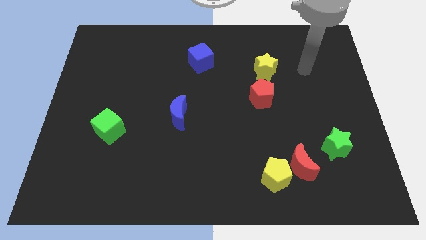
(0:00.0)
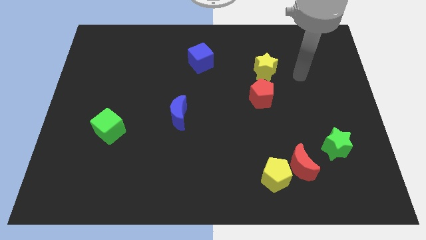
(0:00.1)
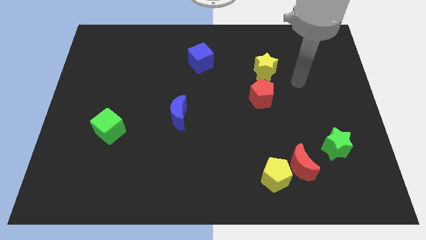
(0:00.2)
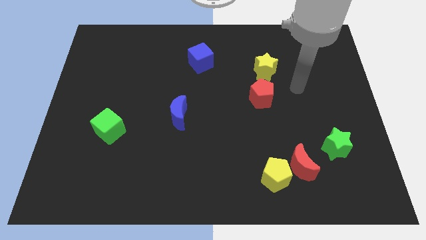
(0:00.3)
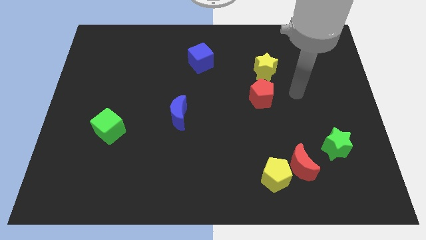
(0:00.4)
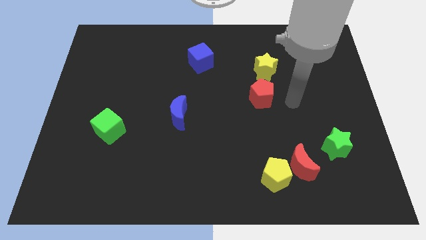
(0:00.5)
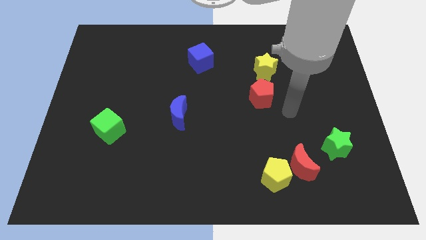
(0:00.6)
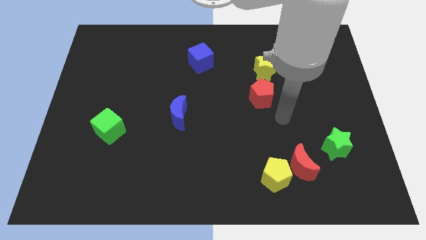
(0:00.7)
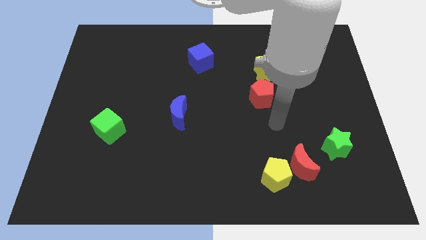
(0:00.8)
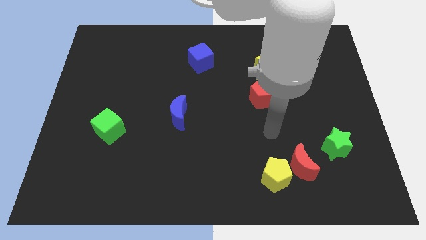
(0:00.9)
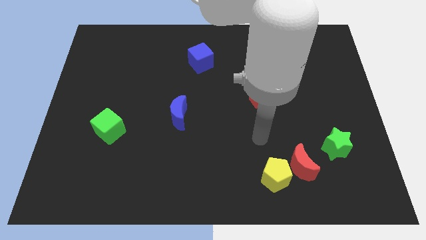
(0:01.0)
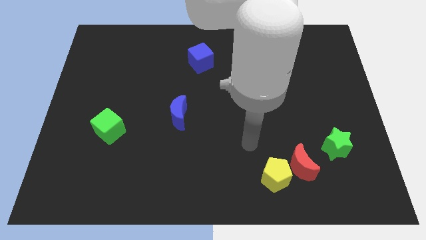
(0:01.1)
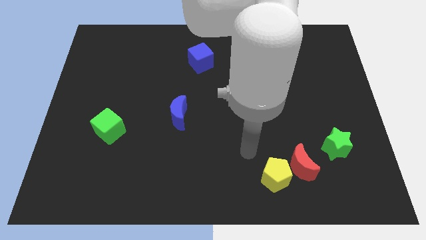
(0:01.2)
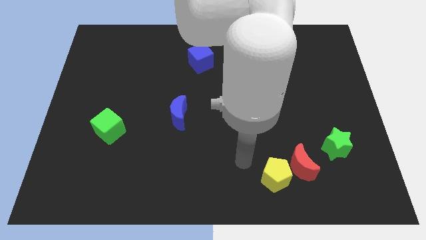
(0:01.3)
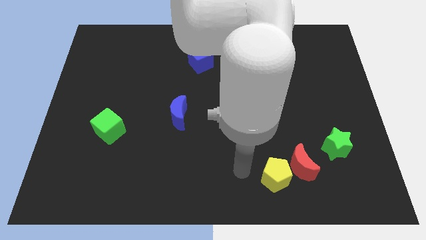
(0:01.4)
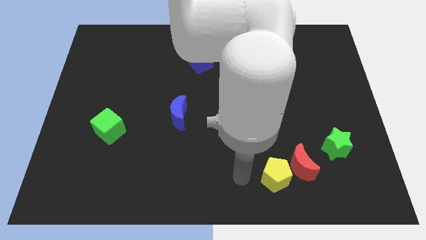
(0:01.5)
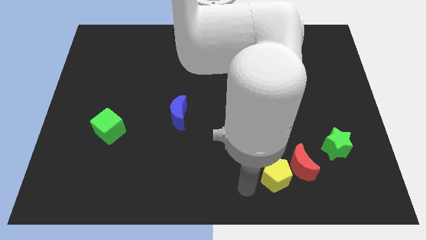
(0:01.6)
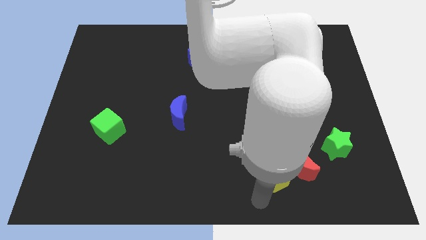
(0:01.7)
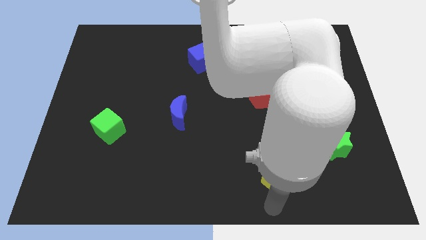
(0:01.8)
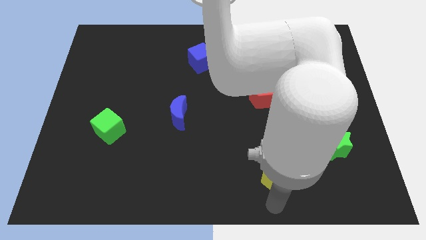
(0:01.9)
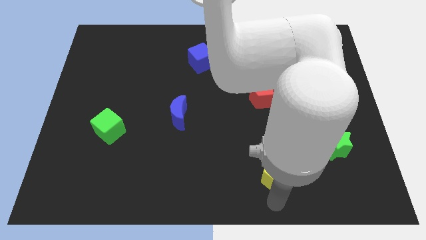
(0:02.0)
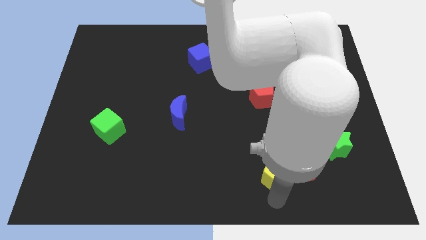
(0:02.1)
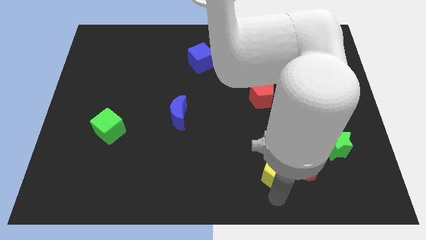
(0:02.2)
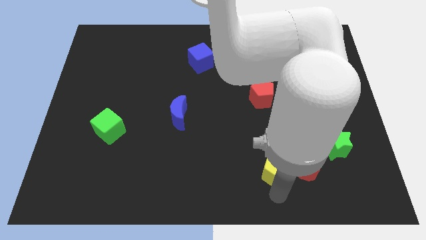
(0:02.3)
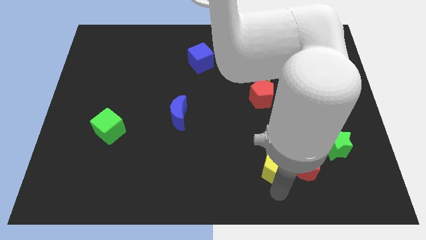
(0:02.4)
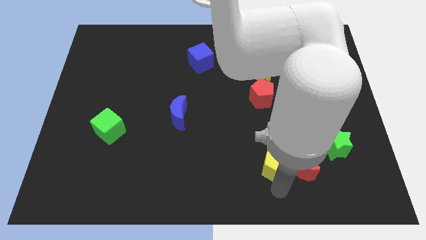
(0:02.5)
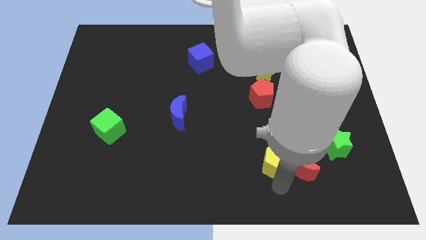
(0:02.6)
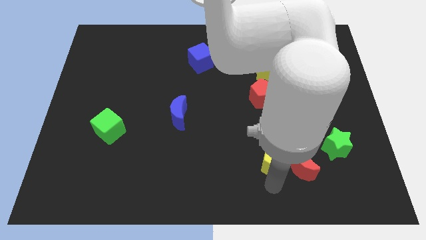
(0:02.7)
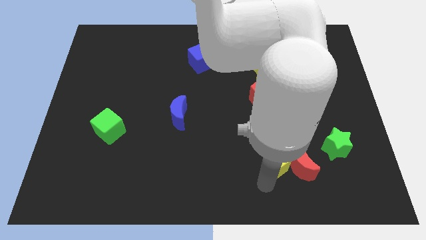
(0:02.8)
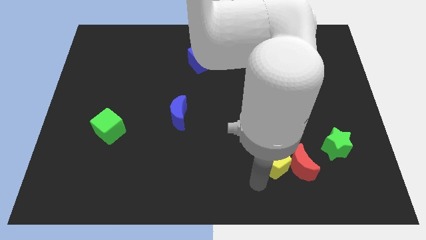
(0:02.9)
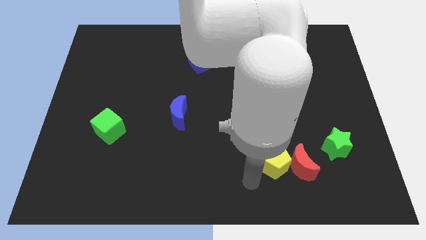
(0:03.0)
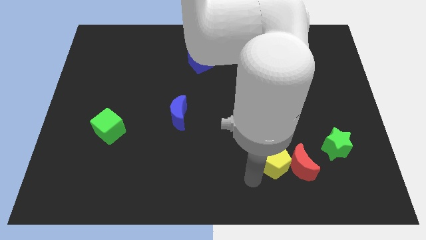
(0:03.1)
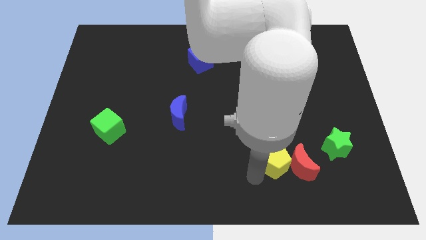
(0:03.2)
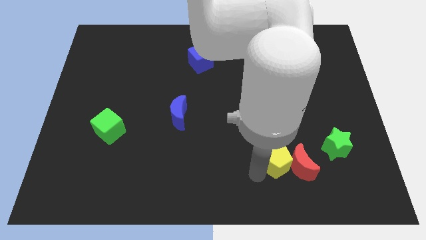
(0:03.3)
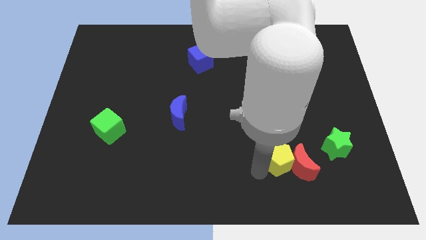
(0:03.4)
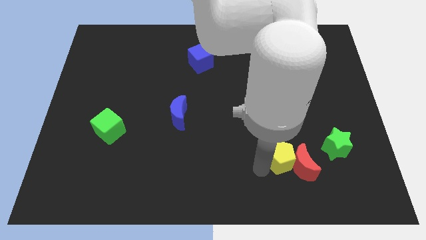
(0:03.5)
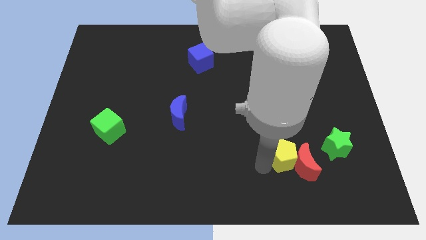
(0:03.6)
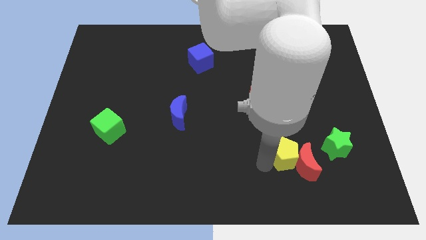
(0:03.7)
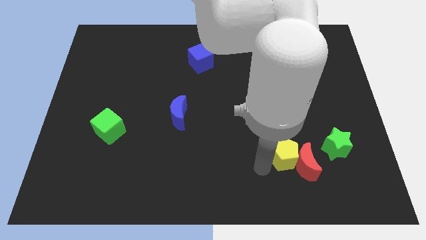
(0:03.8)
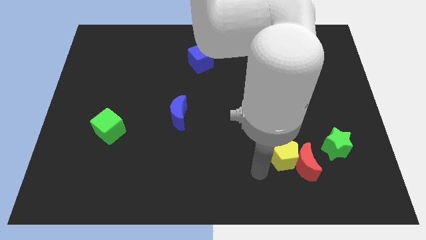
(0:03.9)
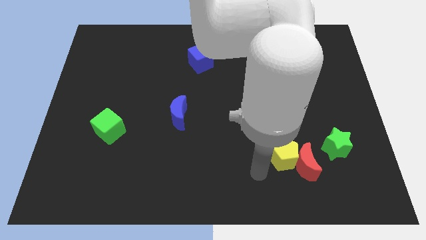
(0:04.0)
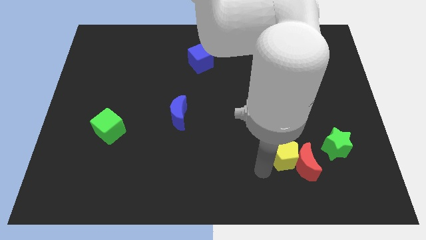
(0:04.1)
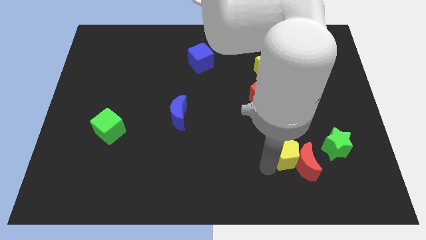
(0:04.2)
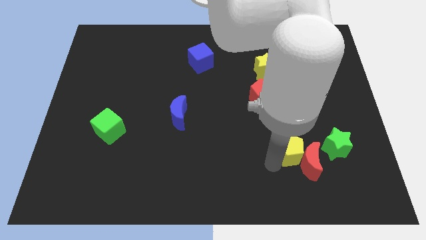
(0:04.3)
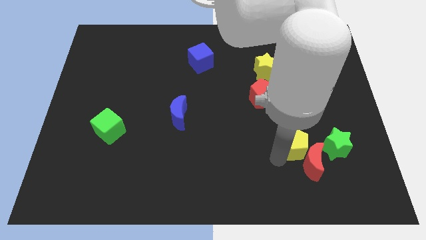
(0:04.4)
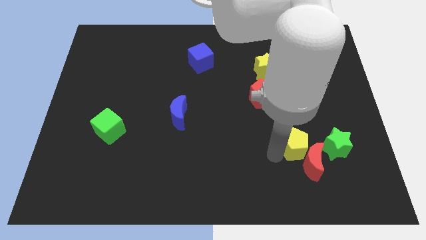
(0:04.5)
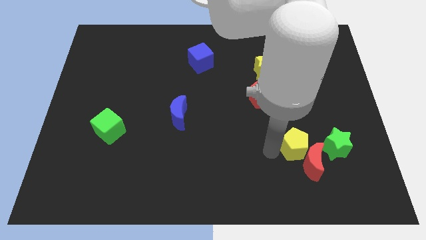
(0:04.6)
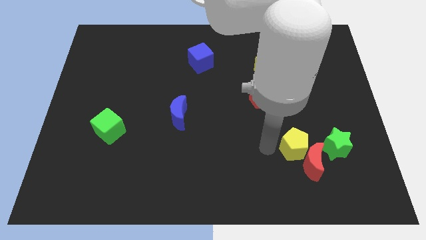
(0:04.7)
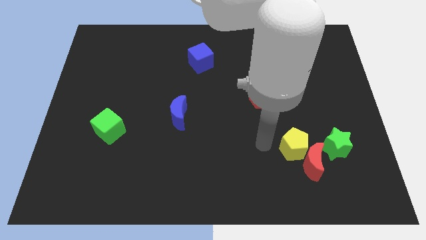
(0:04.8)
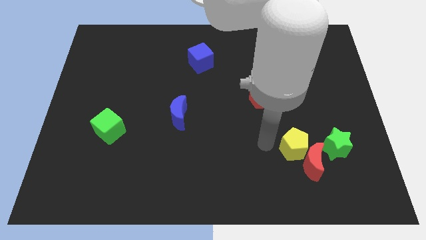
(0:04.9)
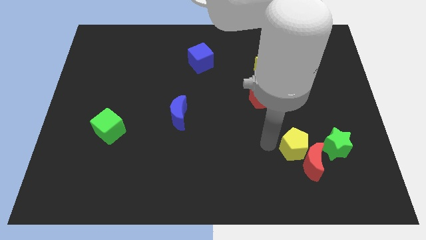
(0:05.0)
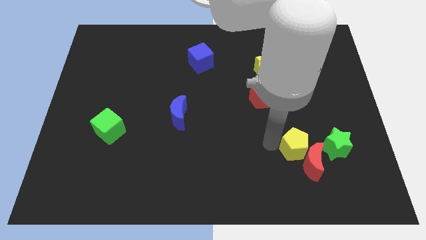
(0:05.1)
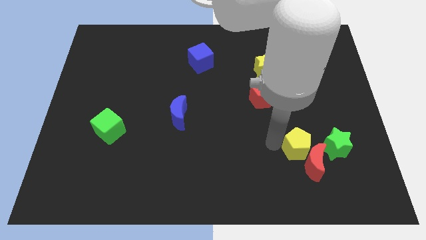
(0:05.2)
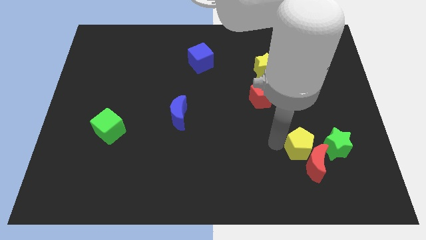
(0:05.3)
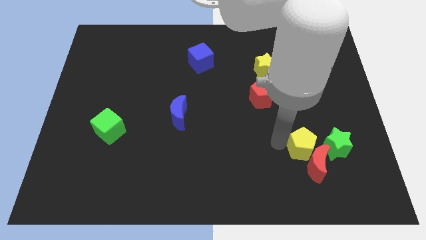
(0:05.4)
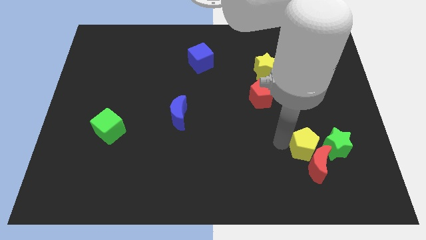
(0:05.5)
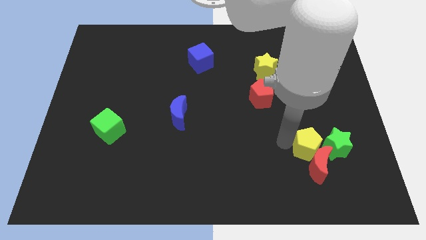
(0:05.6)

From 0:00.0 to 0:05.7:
push the yellow pentagon towards the green star

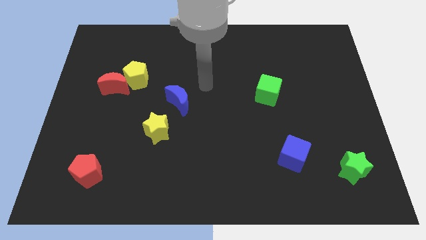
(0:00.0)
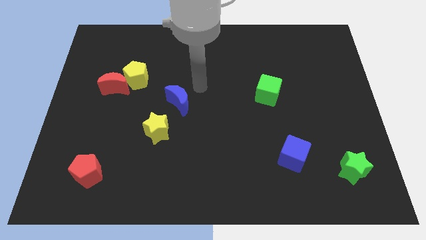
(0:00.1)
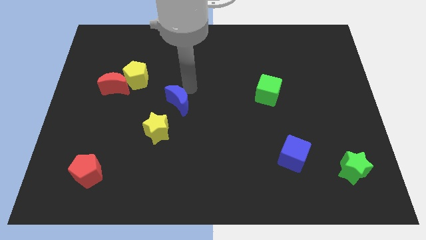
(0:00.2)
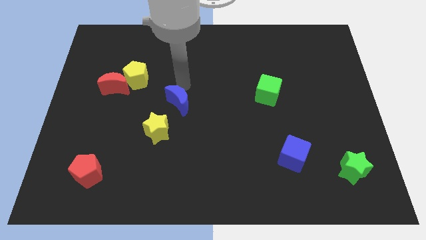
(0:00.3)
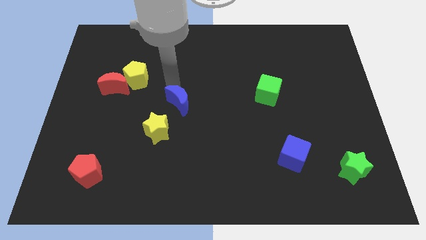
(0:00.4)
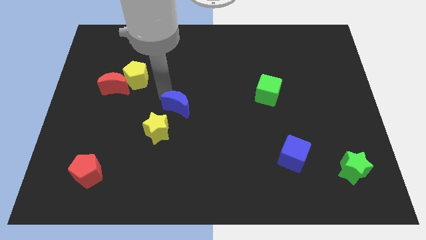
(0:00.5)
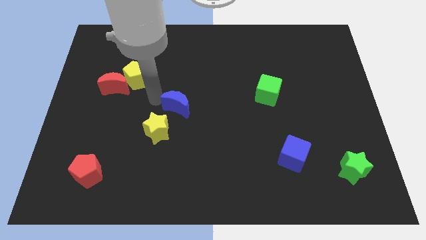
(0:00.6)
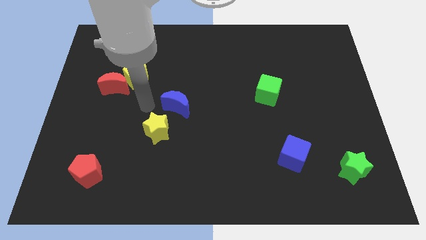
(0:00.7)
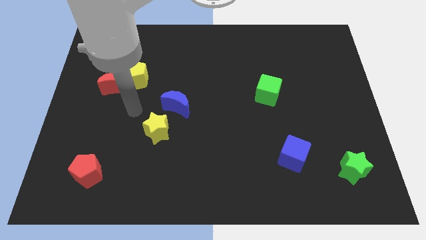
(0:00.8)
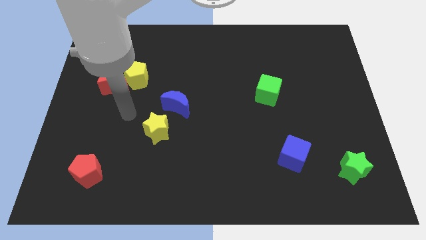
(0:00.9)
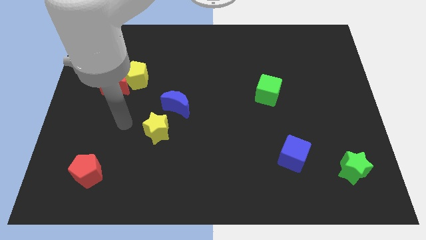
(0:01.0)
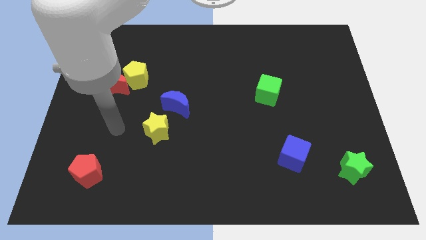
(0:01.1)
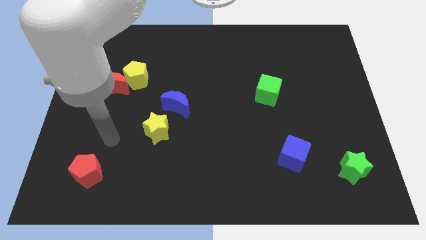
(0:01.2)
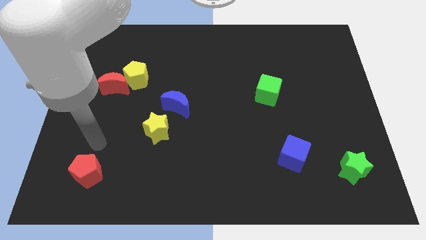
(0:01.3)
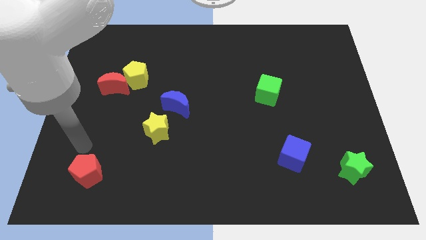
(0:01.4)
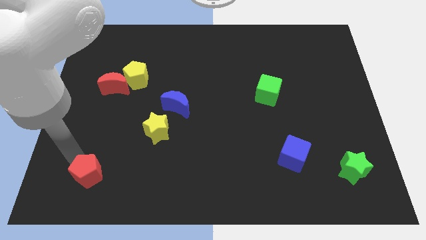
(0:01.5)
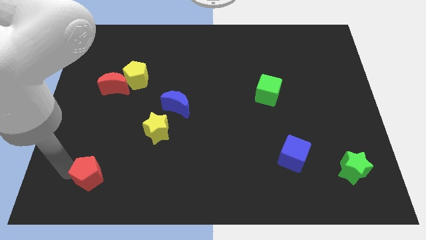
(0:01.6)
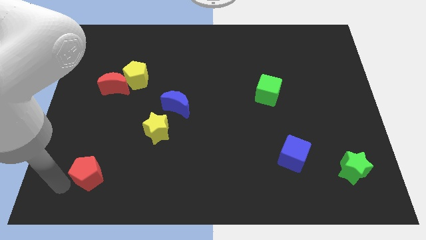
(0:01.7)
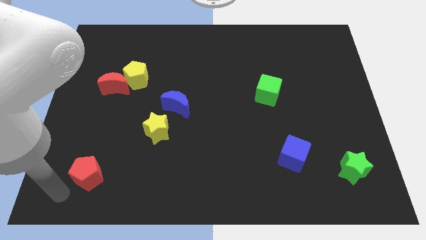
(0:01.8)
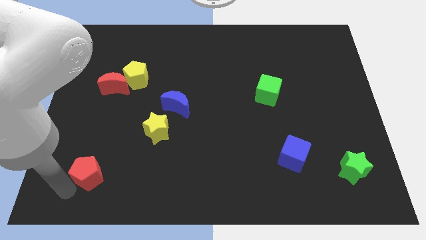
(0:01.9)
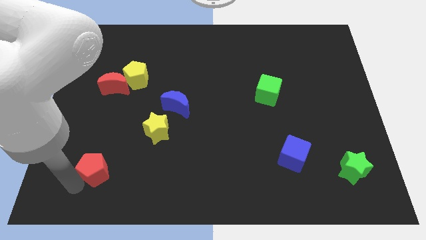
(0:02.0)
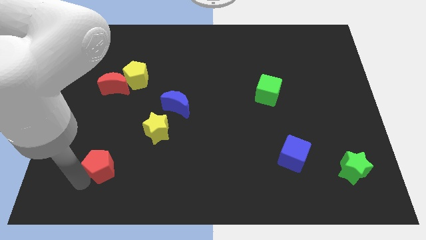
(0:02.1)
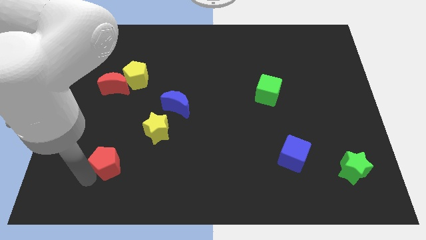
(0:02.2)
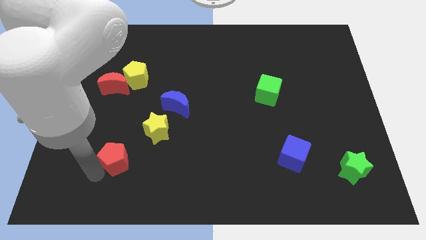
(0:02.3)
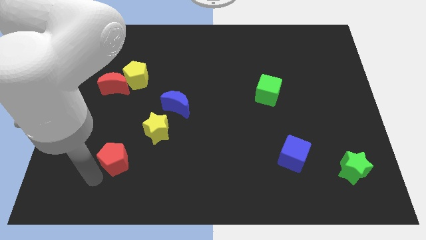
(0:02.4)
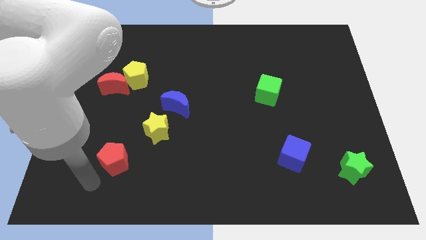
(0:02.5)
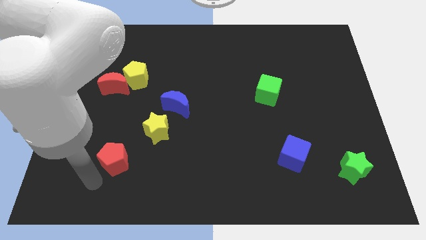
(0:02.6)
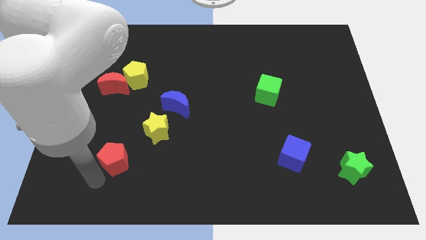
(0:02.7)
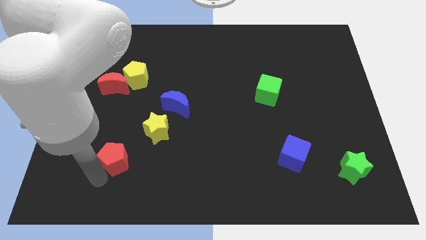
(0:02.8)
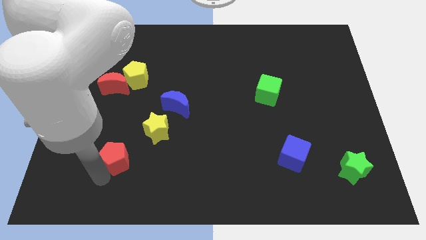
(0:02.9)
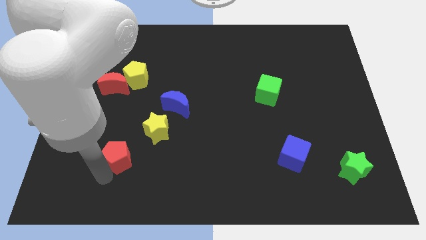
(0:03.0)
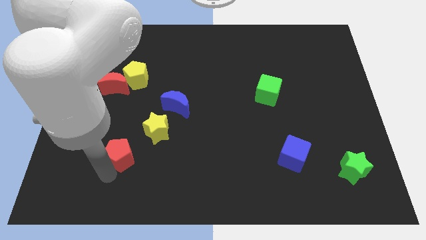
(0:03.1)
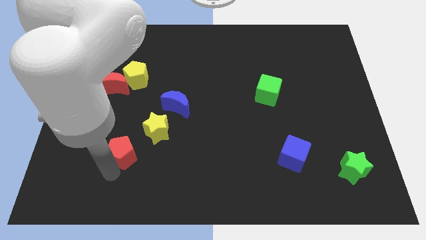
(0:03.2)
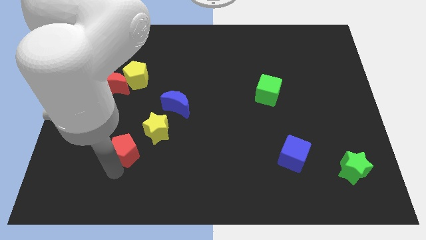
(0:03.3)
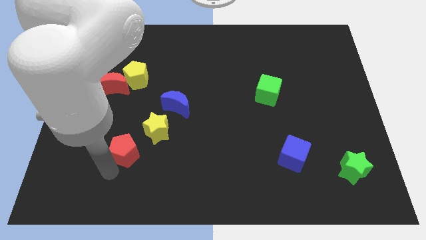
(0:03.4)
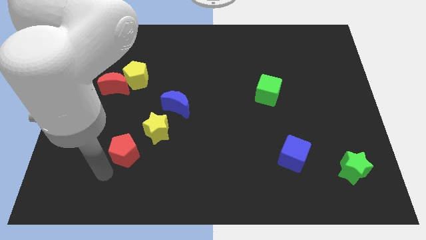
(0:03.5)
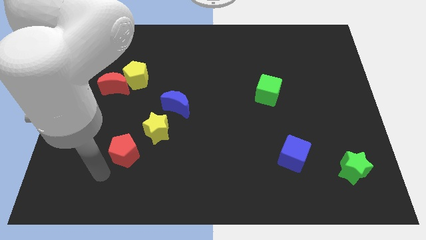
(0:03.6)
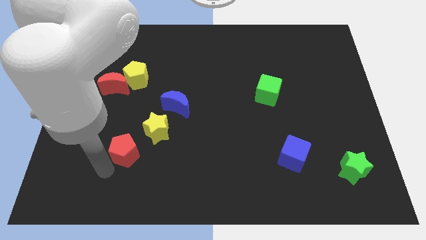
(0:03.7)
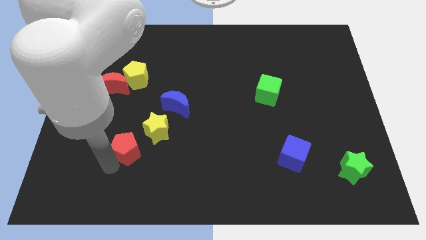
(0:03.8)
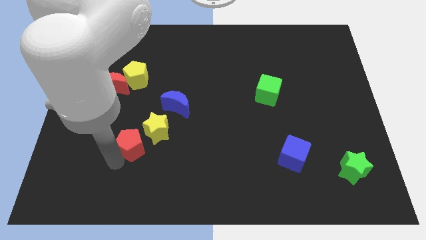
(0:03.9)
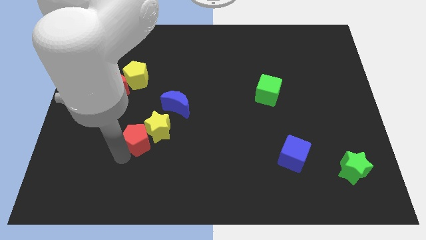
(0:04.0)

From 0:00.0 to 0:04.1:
move the red pentagon next to the yellow star
